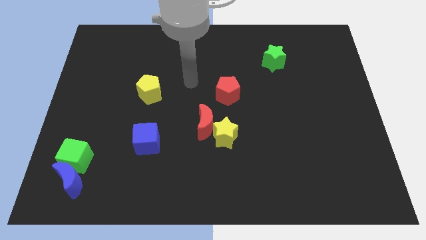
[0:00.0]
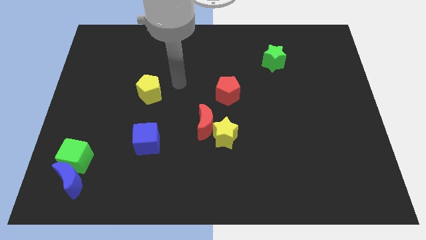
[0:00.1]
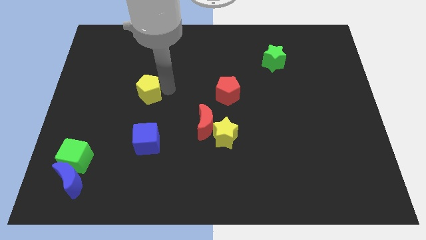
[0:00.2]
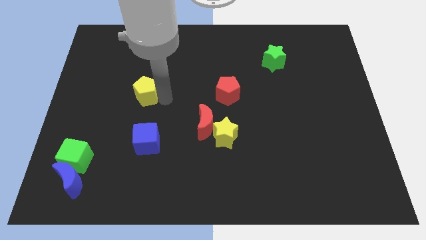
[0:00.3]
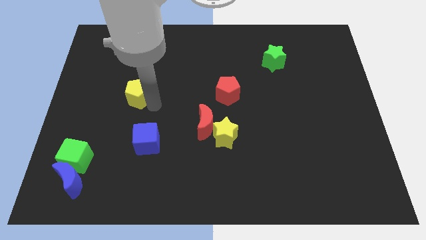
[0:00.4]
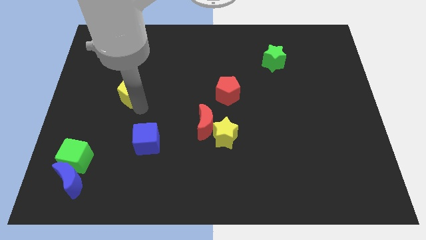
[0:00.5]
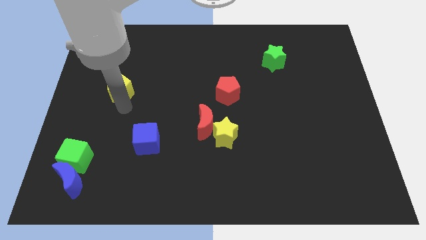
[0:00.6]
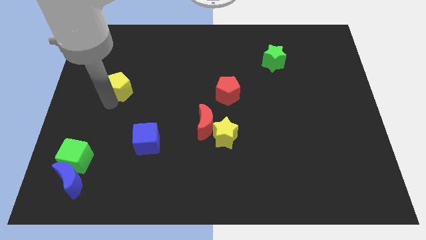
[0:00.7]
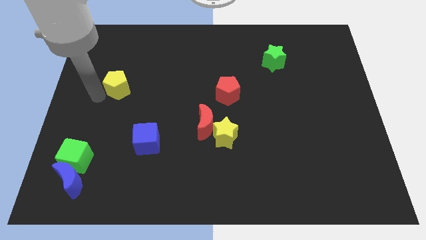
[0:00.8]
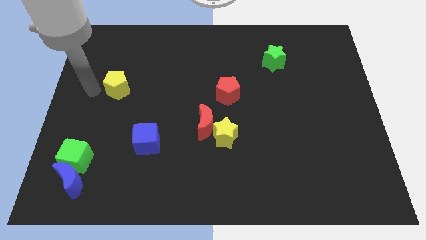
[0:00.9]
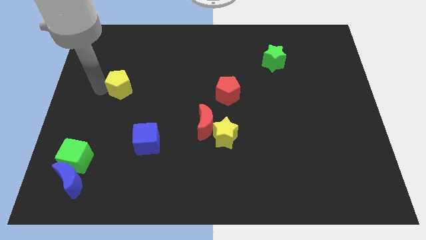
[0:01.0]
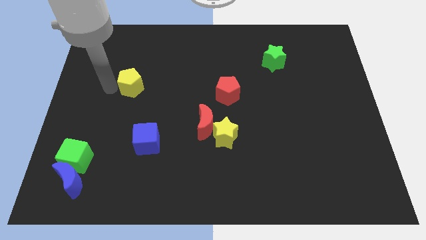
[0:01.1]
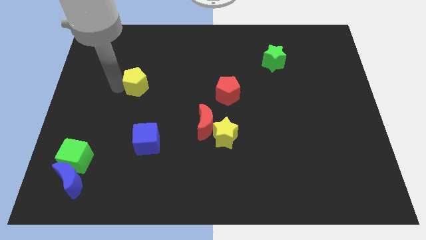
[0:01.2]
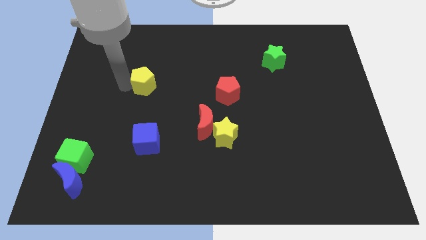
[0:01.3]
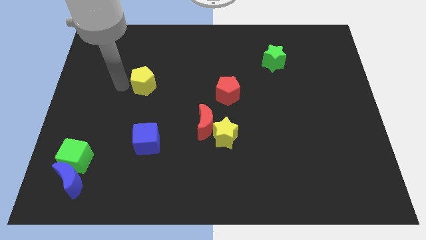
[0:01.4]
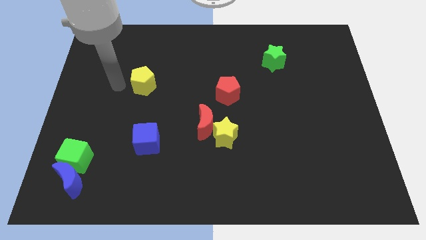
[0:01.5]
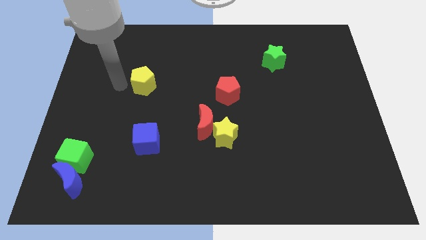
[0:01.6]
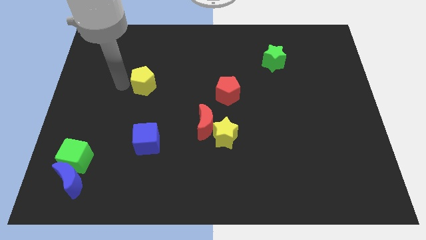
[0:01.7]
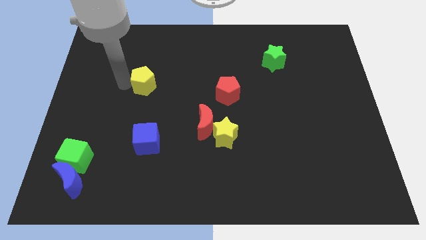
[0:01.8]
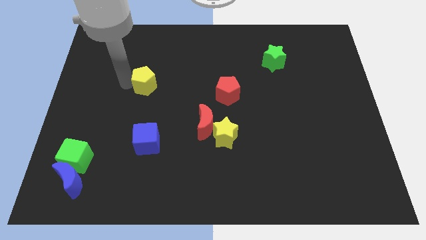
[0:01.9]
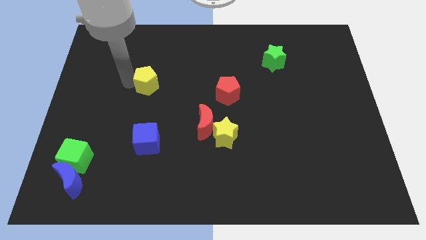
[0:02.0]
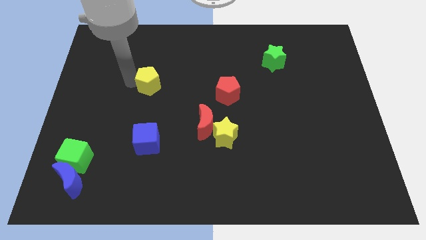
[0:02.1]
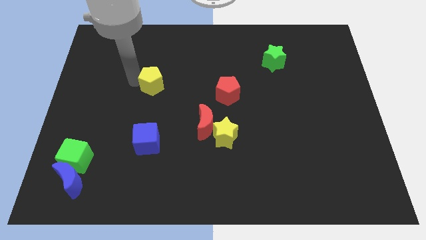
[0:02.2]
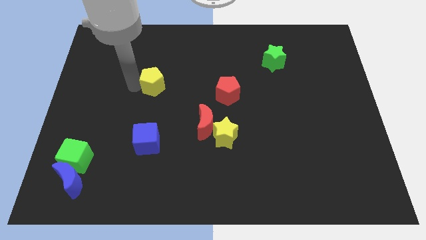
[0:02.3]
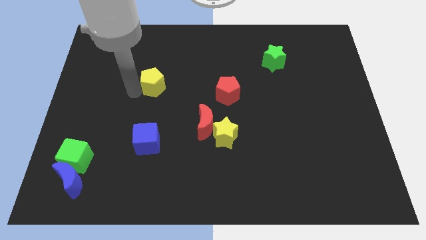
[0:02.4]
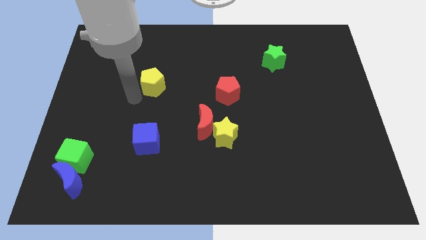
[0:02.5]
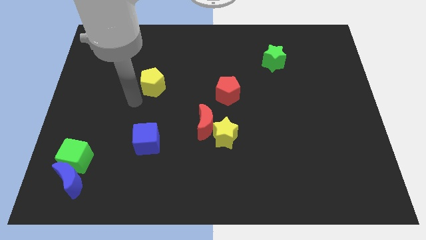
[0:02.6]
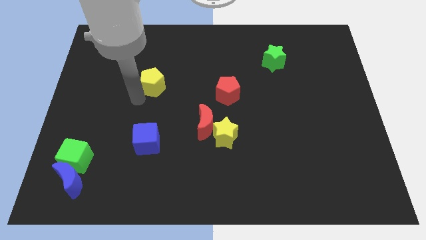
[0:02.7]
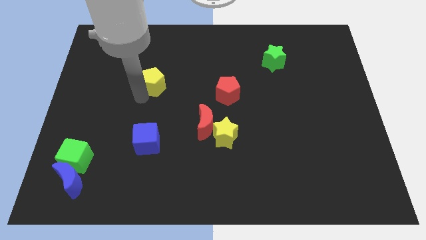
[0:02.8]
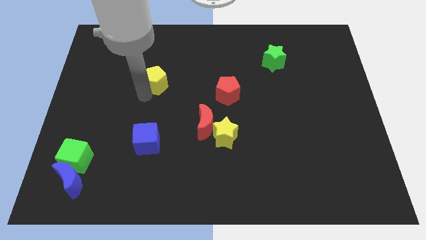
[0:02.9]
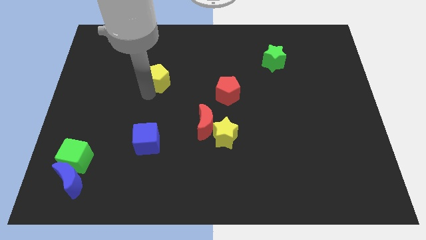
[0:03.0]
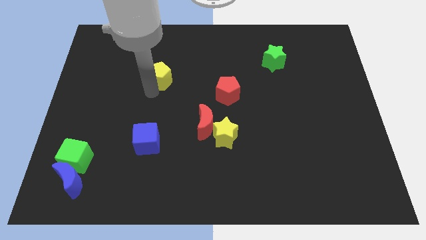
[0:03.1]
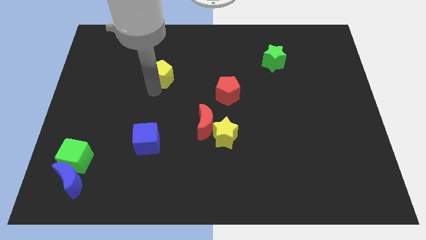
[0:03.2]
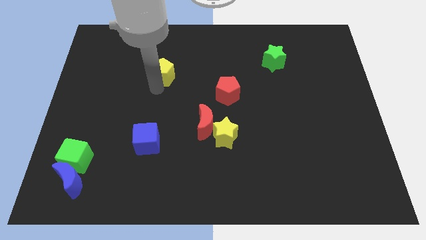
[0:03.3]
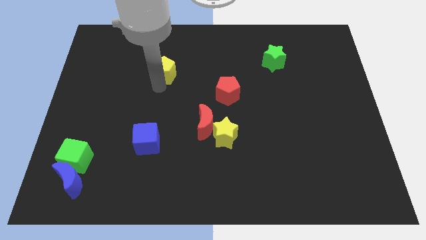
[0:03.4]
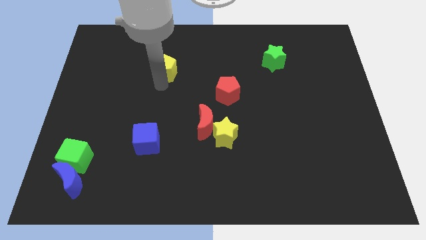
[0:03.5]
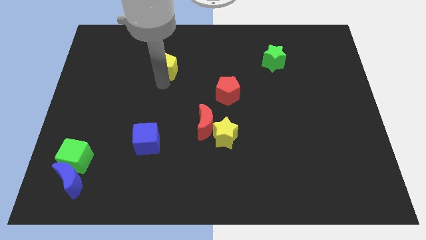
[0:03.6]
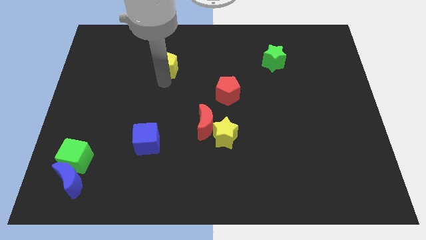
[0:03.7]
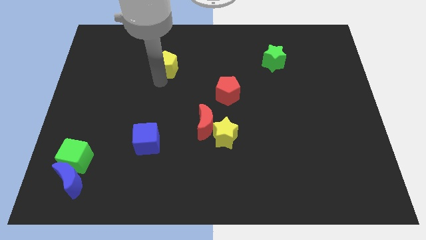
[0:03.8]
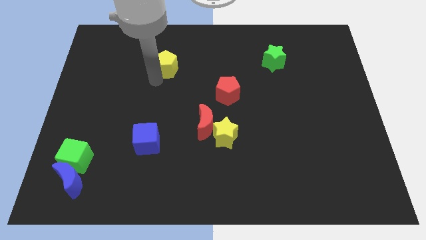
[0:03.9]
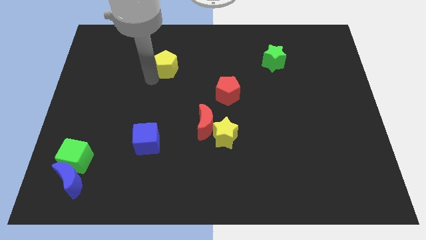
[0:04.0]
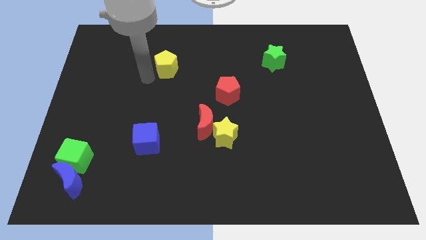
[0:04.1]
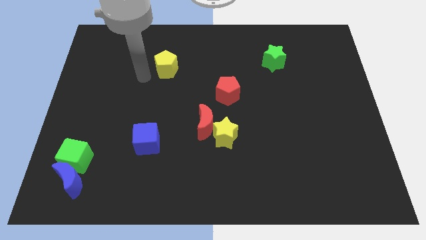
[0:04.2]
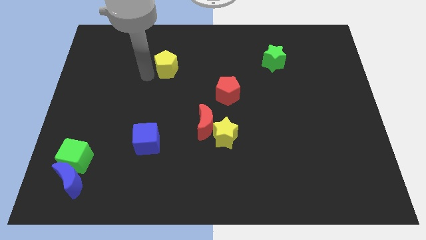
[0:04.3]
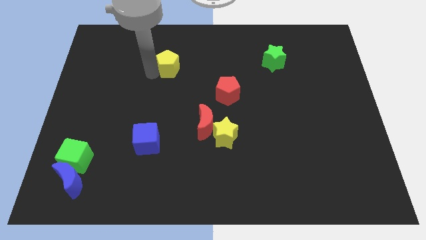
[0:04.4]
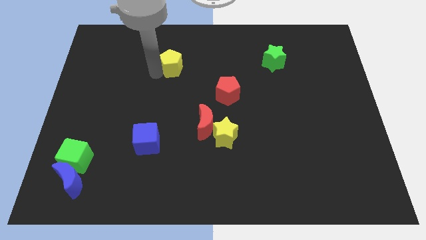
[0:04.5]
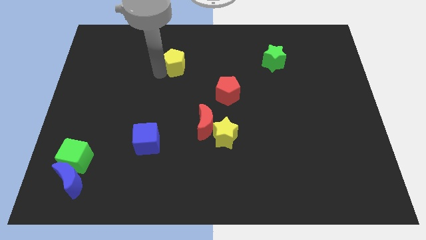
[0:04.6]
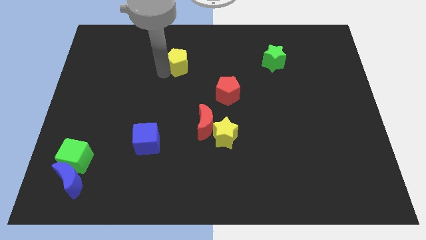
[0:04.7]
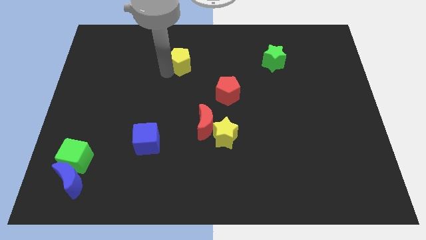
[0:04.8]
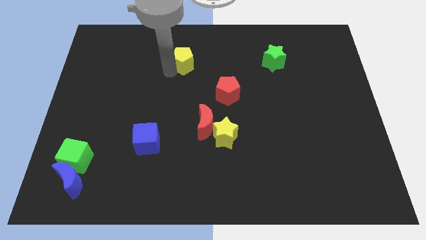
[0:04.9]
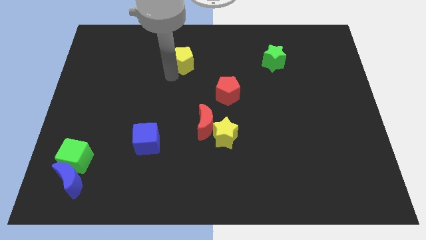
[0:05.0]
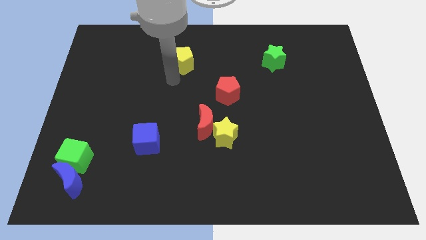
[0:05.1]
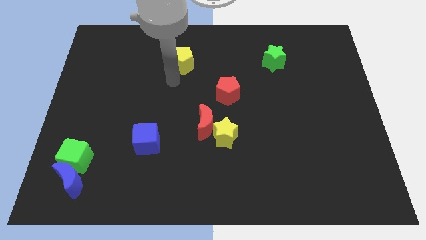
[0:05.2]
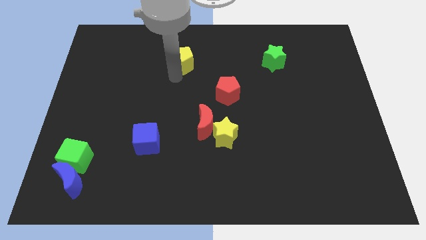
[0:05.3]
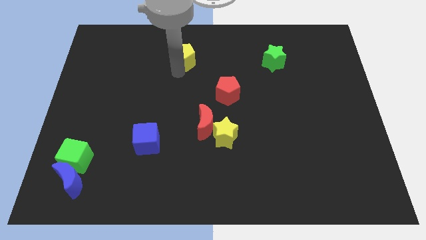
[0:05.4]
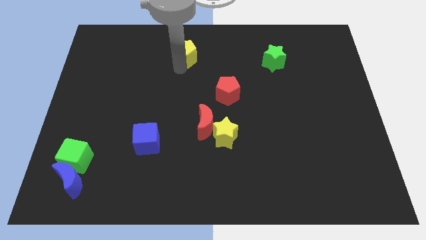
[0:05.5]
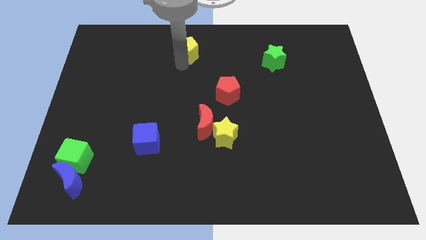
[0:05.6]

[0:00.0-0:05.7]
slide the yellow pentagon to the top

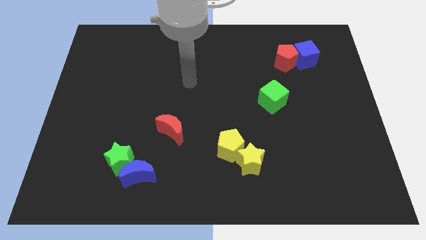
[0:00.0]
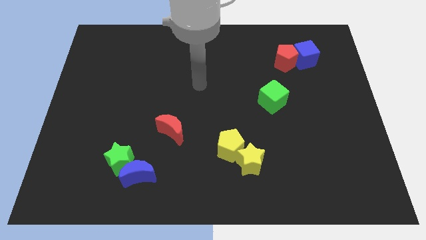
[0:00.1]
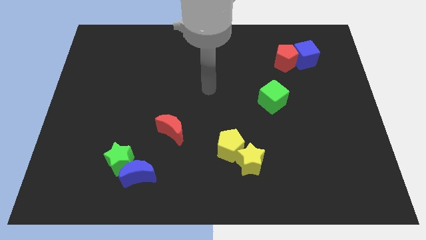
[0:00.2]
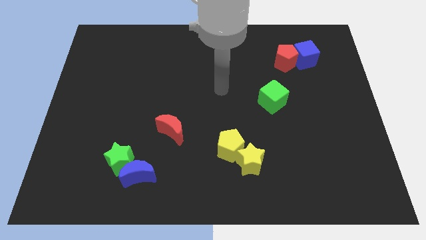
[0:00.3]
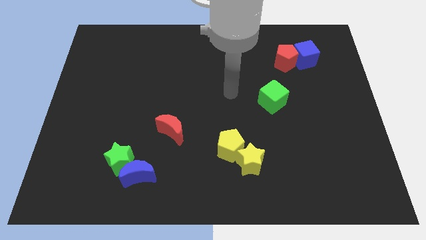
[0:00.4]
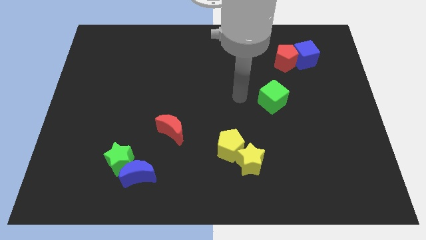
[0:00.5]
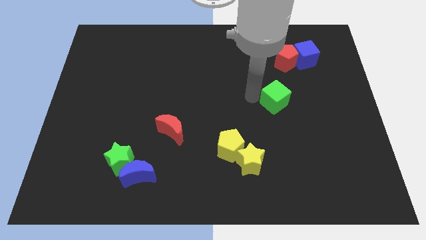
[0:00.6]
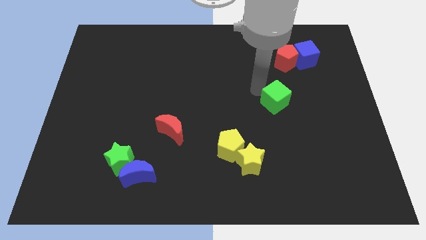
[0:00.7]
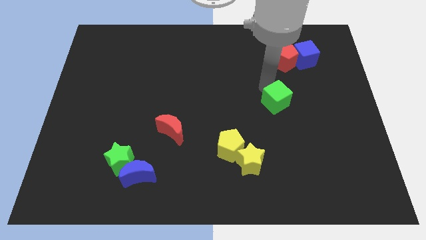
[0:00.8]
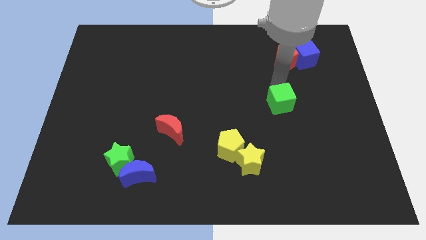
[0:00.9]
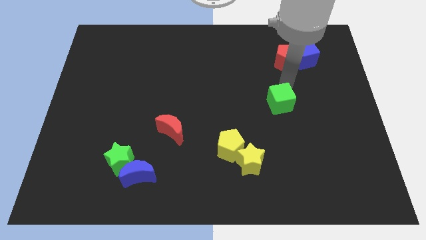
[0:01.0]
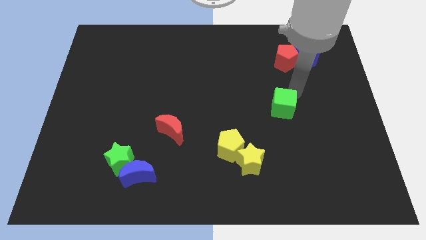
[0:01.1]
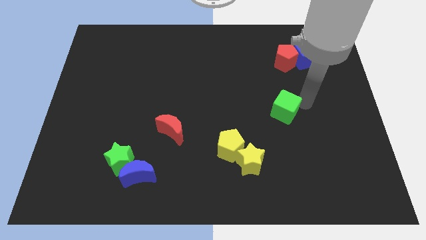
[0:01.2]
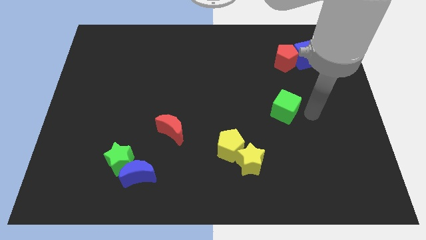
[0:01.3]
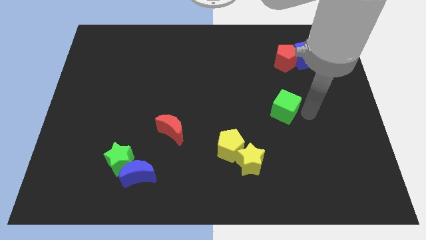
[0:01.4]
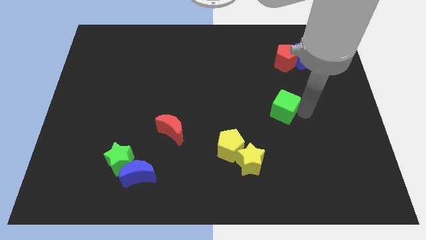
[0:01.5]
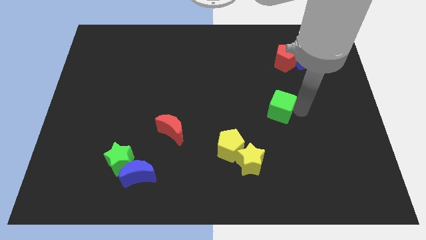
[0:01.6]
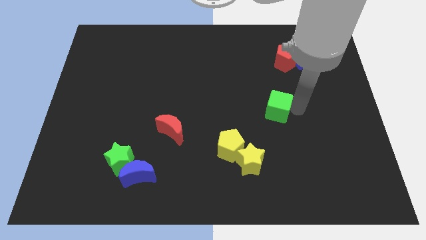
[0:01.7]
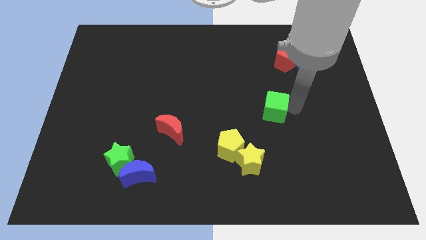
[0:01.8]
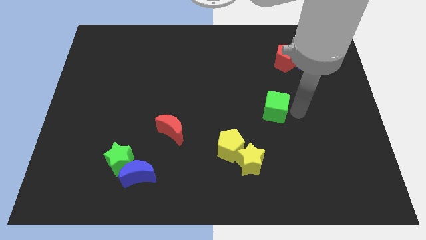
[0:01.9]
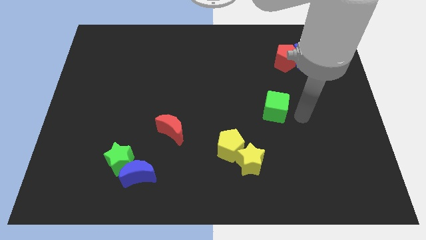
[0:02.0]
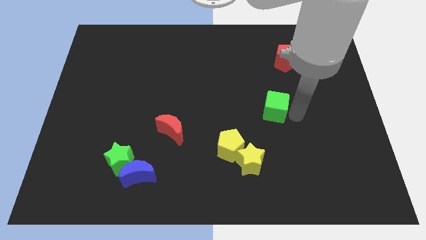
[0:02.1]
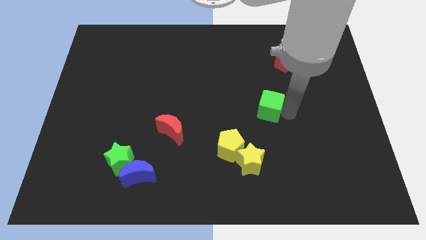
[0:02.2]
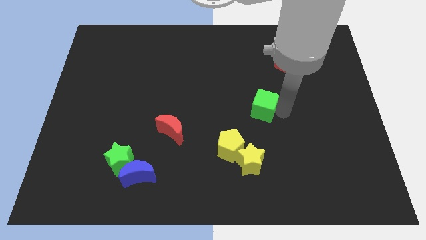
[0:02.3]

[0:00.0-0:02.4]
move the green cube to the center
